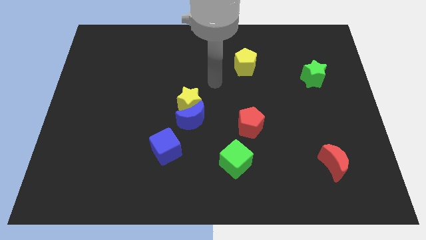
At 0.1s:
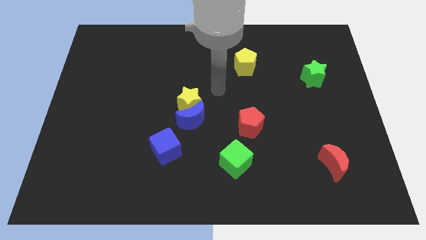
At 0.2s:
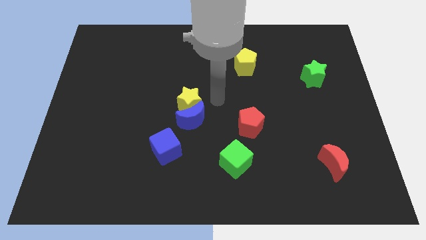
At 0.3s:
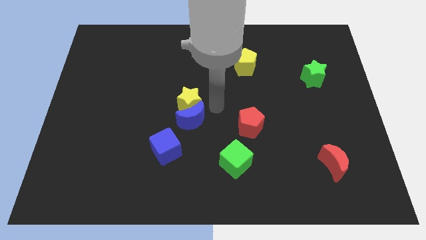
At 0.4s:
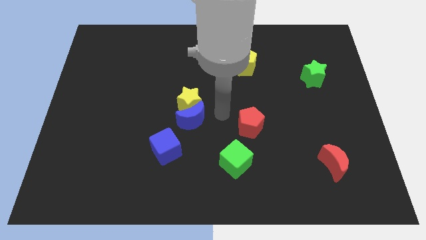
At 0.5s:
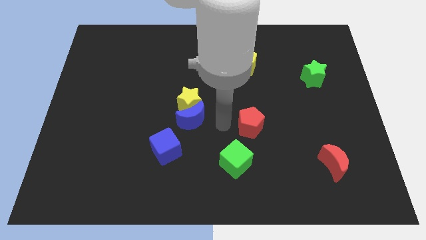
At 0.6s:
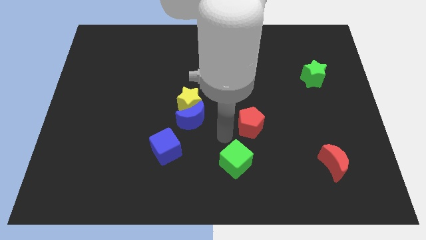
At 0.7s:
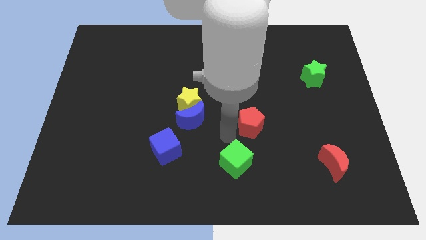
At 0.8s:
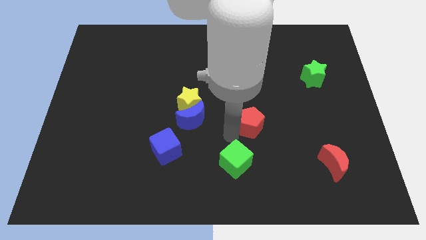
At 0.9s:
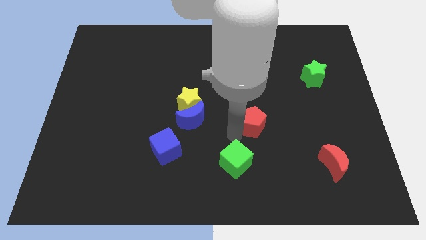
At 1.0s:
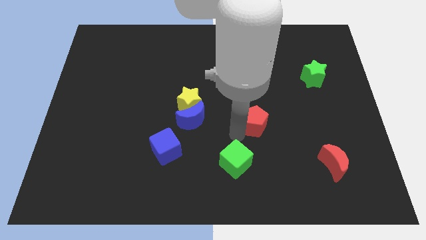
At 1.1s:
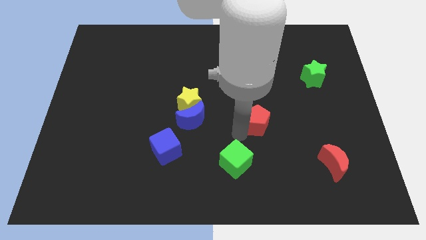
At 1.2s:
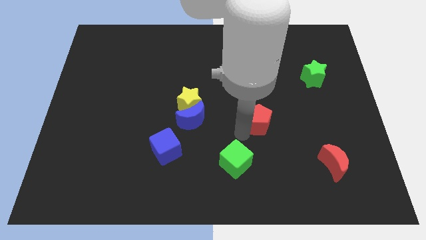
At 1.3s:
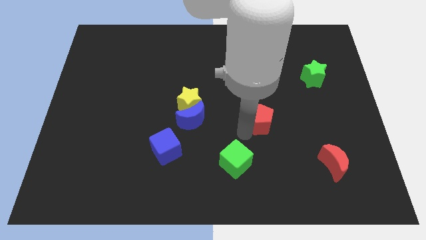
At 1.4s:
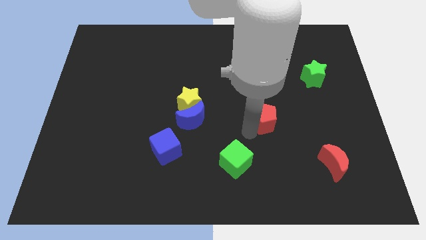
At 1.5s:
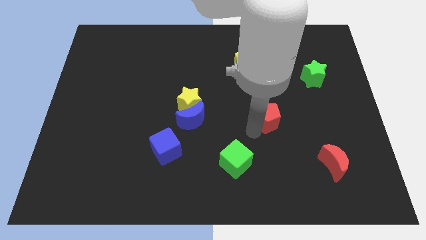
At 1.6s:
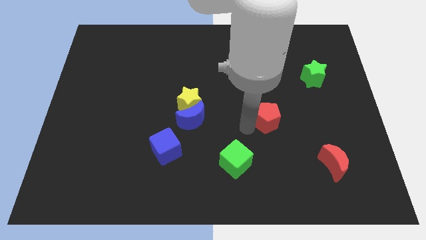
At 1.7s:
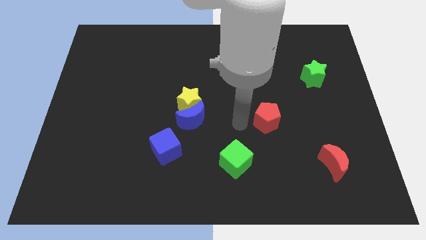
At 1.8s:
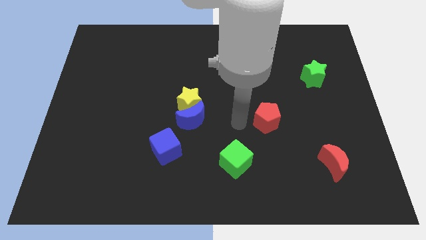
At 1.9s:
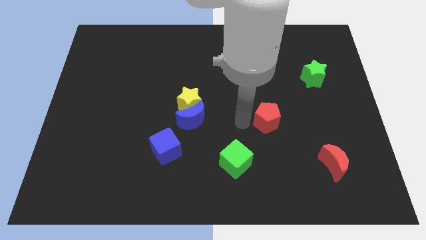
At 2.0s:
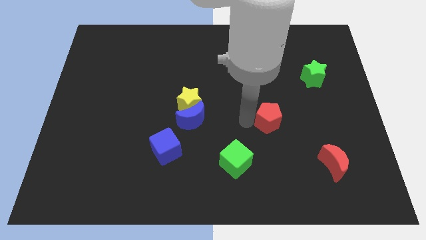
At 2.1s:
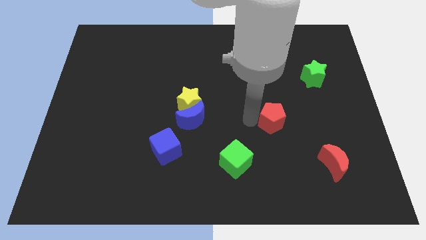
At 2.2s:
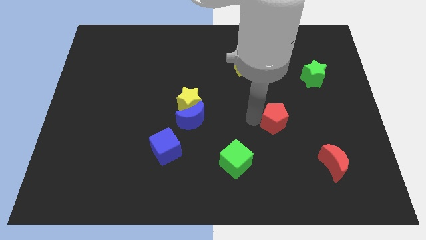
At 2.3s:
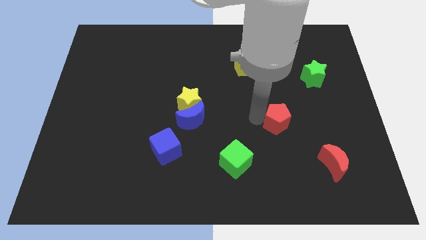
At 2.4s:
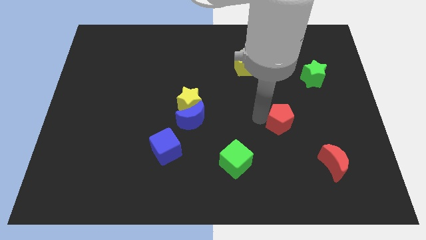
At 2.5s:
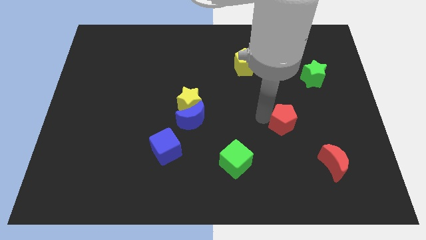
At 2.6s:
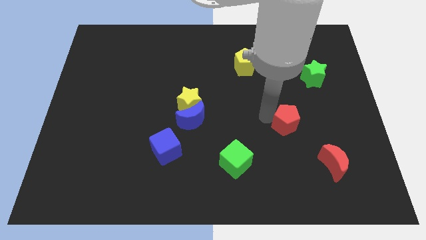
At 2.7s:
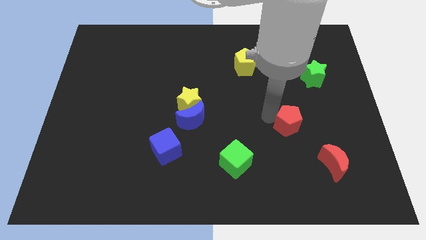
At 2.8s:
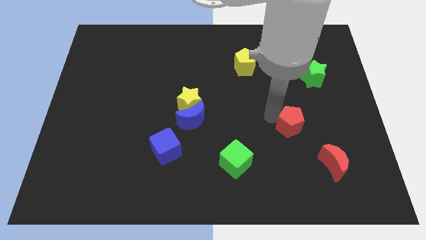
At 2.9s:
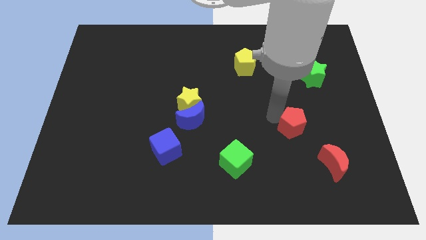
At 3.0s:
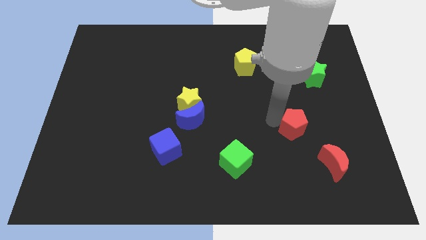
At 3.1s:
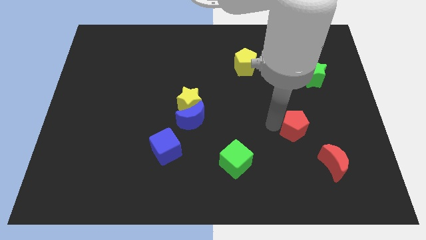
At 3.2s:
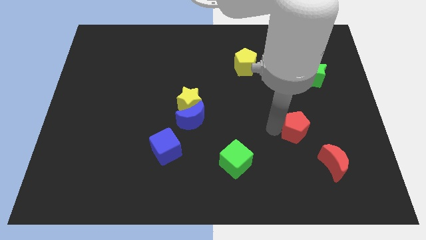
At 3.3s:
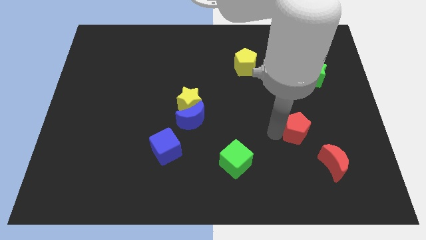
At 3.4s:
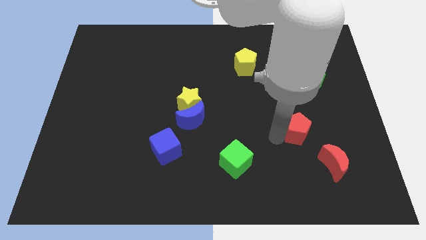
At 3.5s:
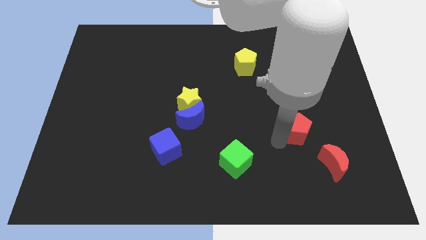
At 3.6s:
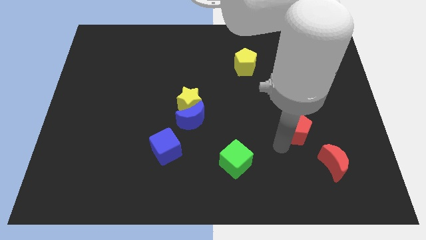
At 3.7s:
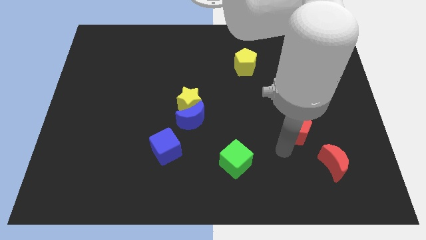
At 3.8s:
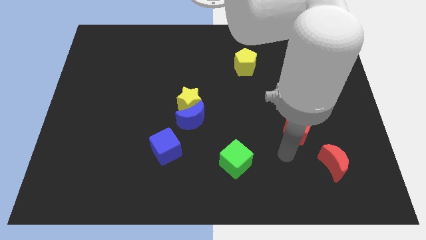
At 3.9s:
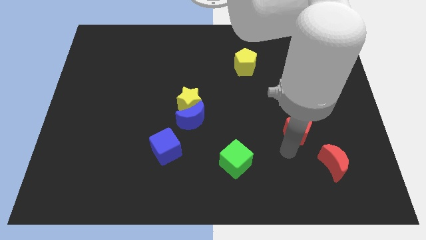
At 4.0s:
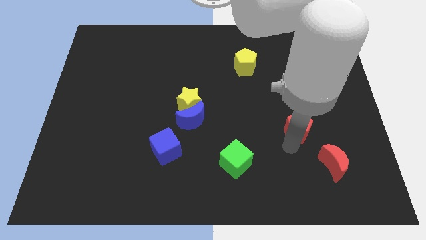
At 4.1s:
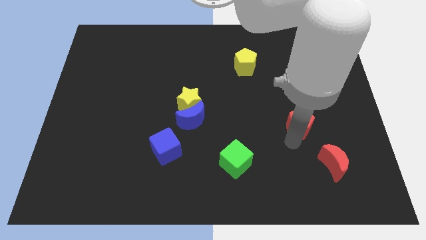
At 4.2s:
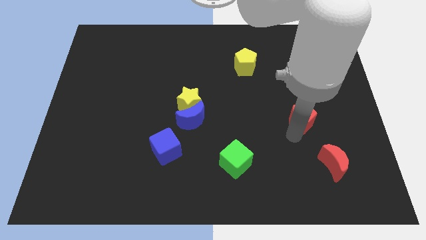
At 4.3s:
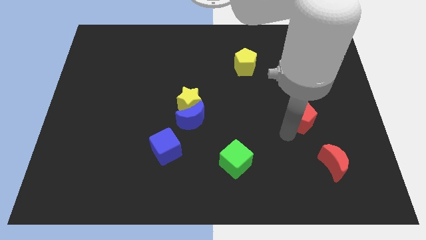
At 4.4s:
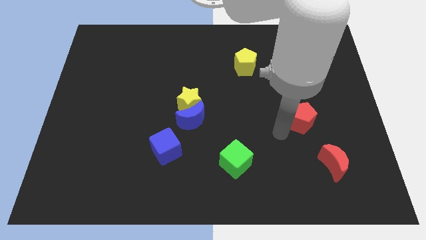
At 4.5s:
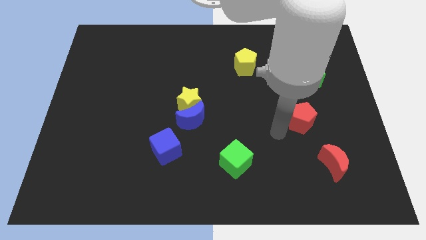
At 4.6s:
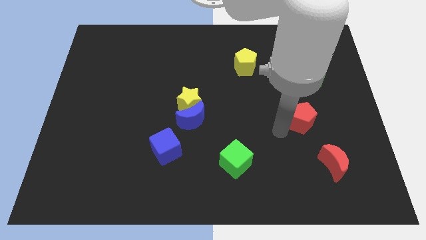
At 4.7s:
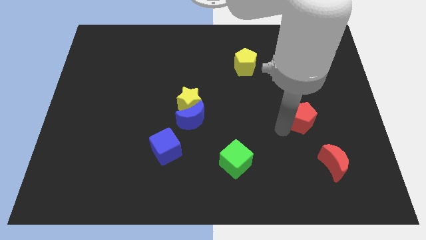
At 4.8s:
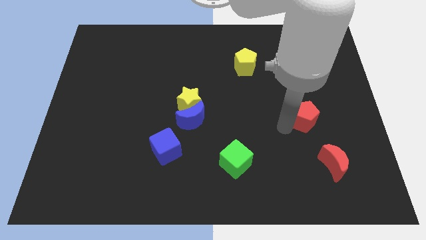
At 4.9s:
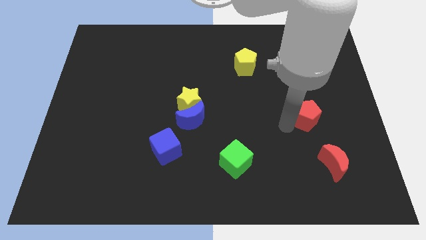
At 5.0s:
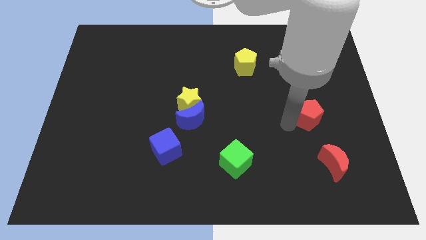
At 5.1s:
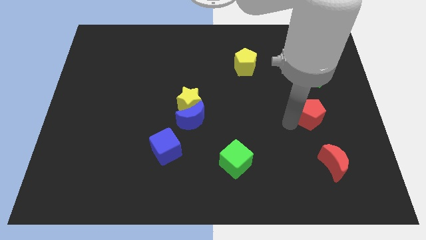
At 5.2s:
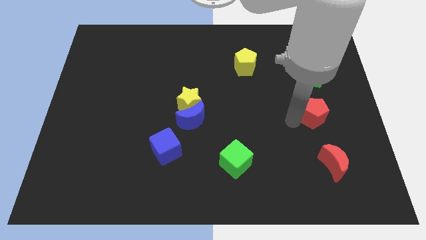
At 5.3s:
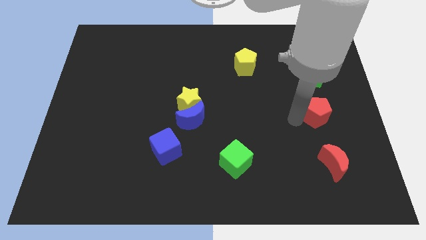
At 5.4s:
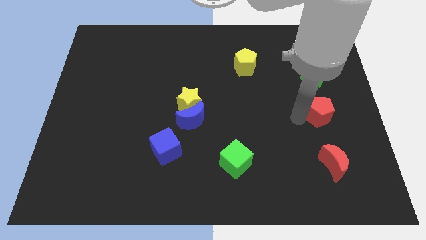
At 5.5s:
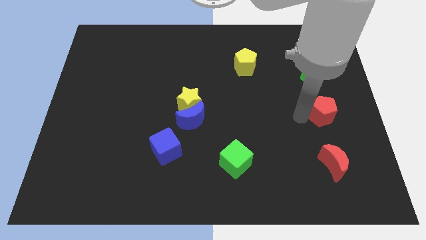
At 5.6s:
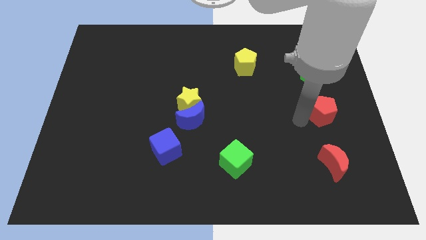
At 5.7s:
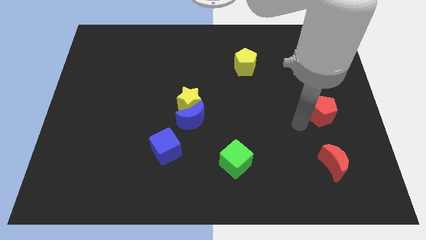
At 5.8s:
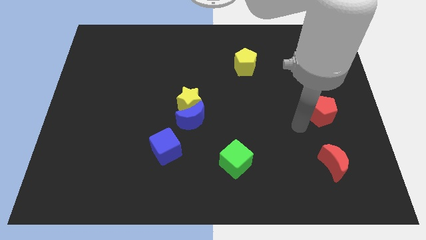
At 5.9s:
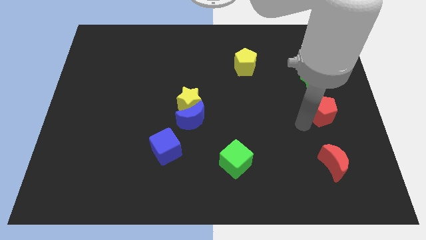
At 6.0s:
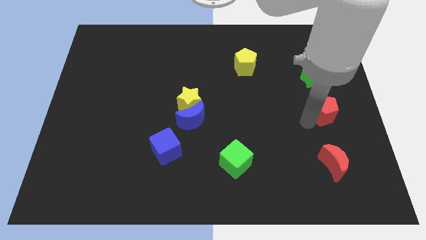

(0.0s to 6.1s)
move the red pentagon to the right side

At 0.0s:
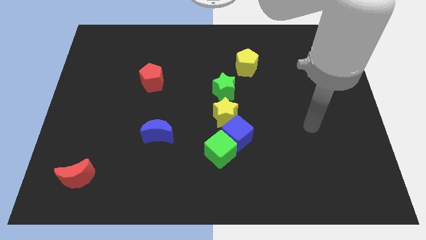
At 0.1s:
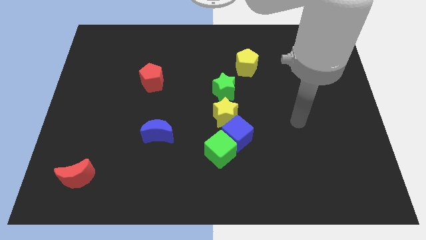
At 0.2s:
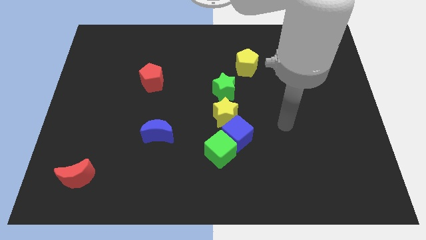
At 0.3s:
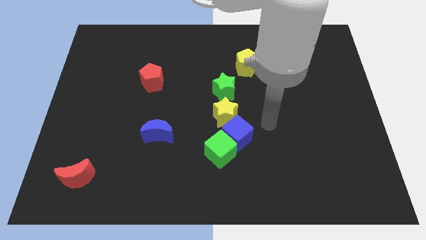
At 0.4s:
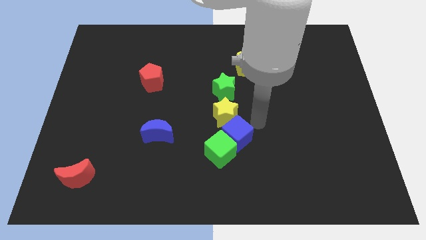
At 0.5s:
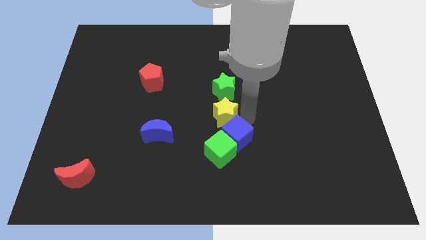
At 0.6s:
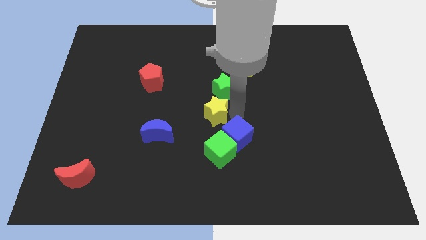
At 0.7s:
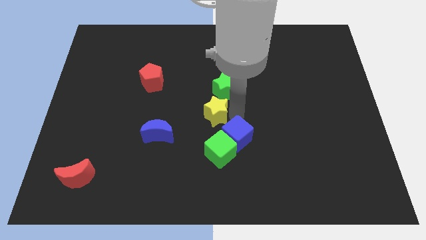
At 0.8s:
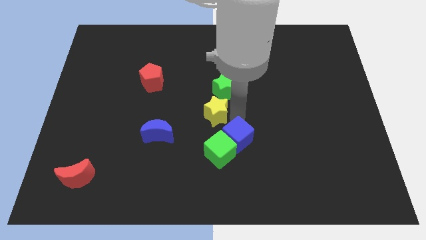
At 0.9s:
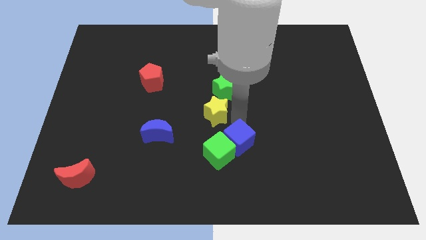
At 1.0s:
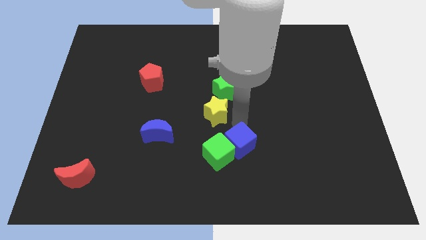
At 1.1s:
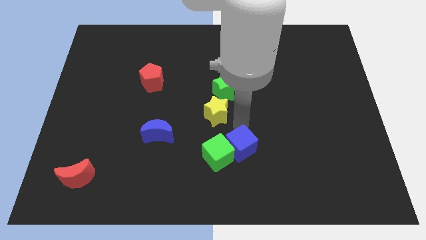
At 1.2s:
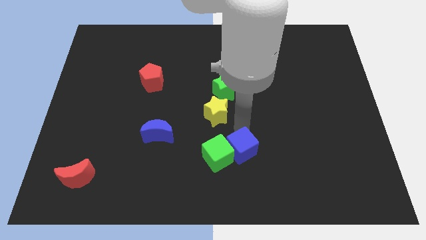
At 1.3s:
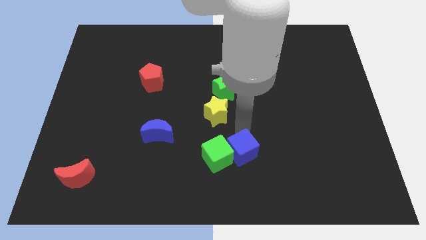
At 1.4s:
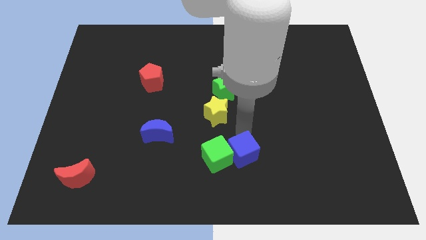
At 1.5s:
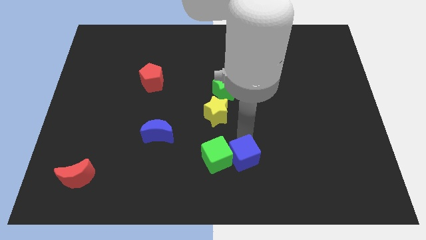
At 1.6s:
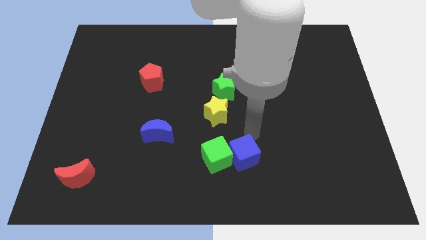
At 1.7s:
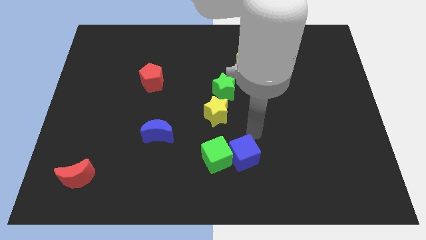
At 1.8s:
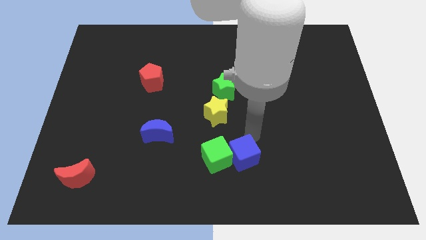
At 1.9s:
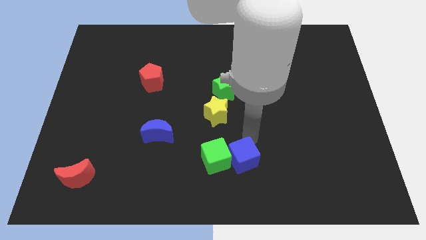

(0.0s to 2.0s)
move the blue cube to the bottom side
